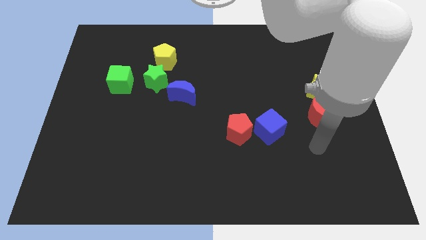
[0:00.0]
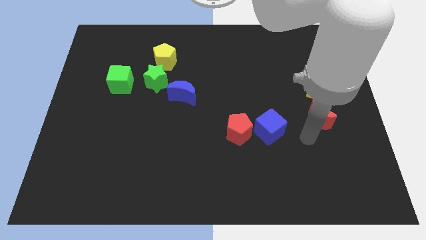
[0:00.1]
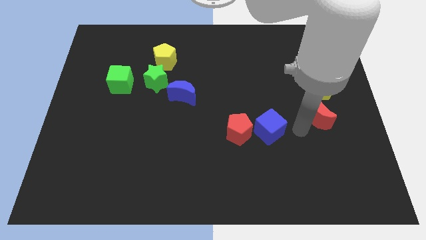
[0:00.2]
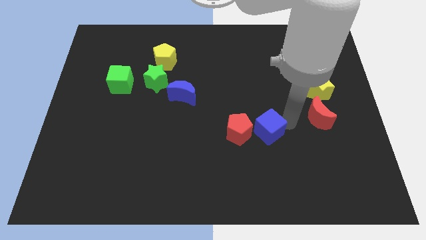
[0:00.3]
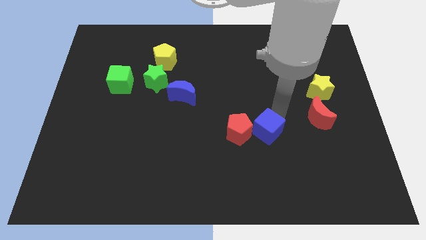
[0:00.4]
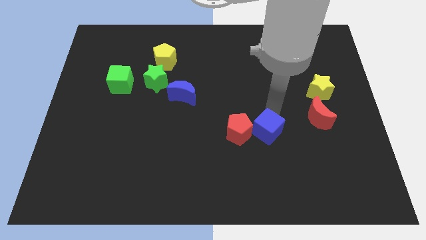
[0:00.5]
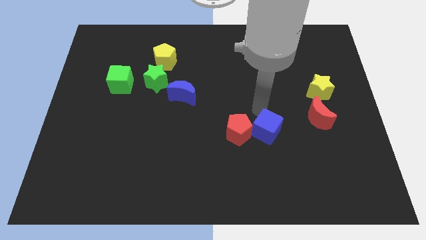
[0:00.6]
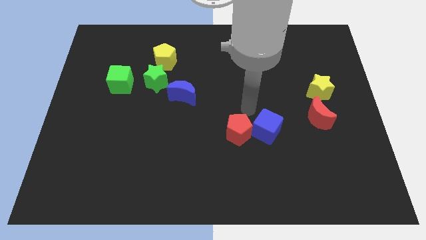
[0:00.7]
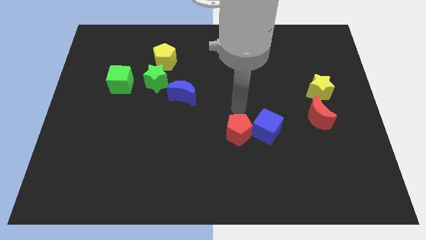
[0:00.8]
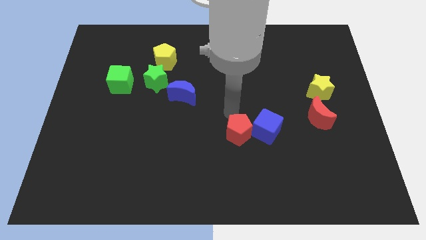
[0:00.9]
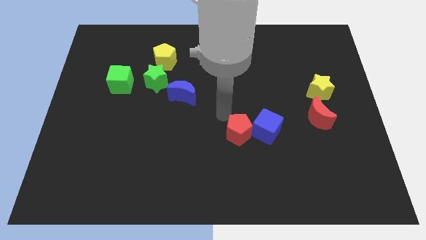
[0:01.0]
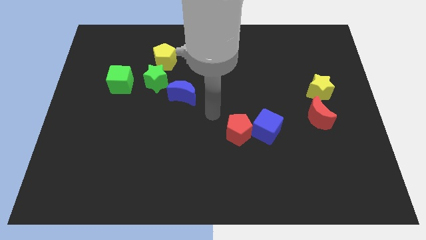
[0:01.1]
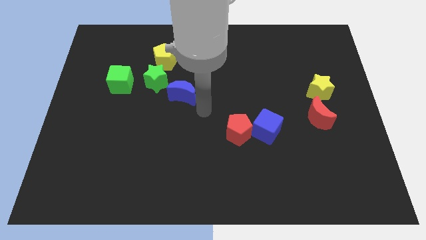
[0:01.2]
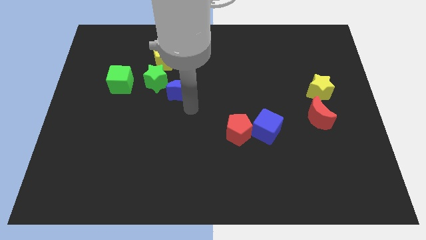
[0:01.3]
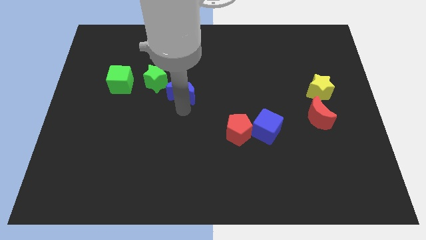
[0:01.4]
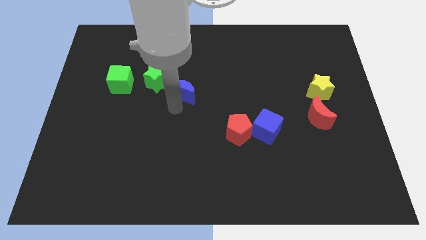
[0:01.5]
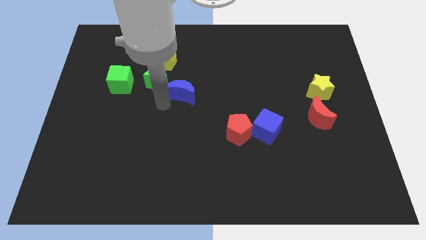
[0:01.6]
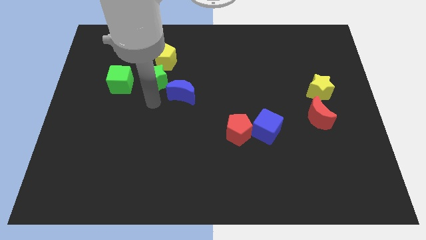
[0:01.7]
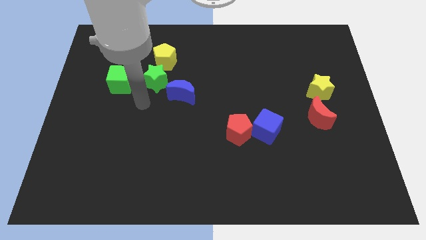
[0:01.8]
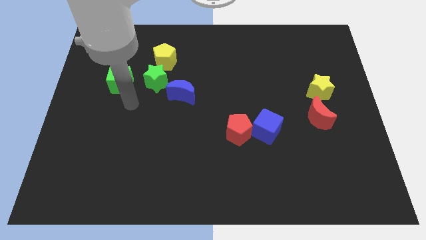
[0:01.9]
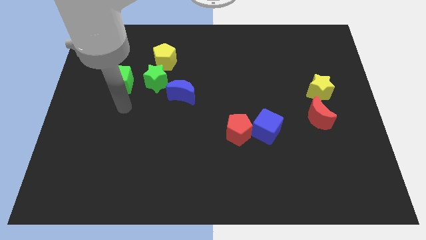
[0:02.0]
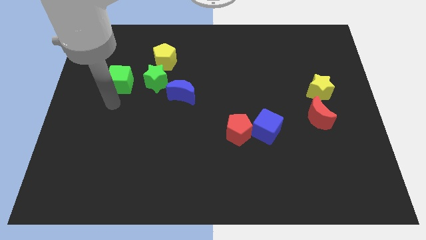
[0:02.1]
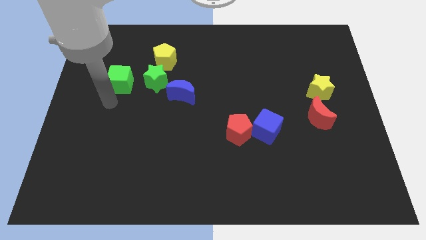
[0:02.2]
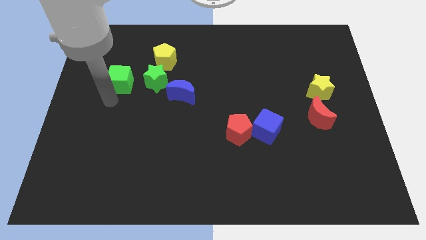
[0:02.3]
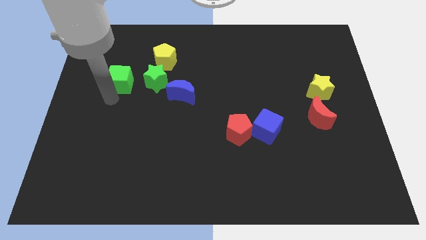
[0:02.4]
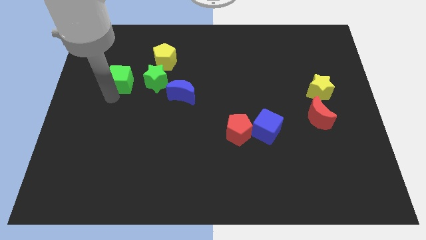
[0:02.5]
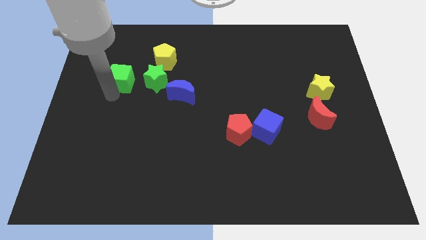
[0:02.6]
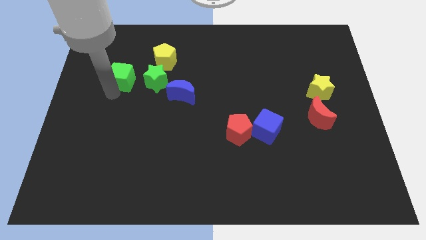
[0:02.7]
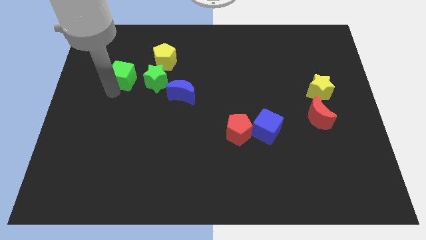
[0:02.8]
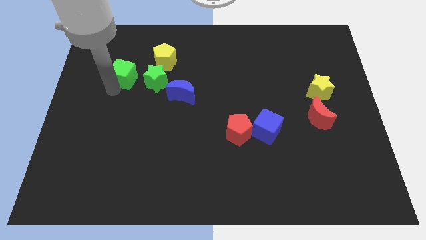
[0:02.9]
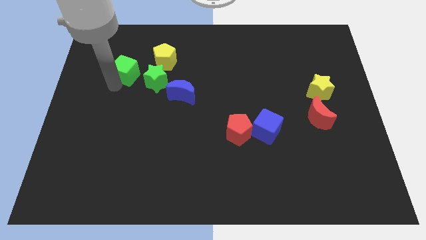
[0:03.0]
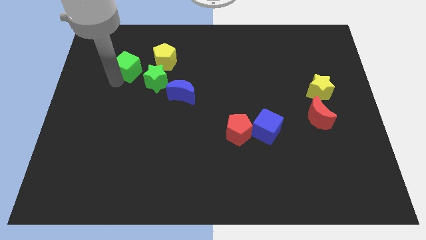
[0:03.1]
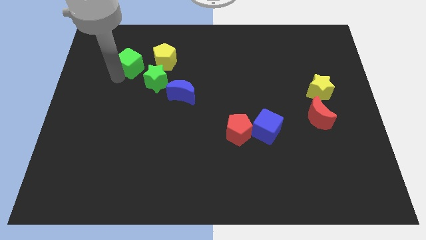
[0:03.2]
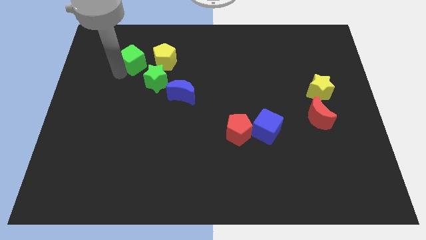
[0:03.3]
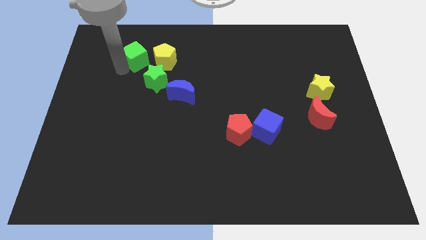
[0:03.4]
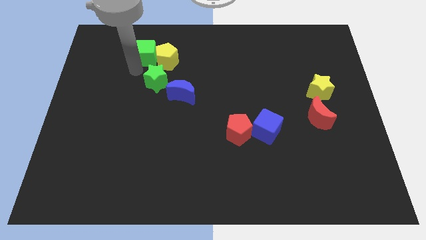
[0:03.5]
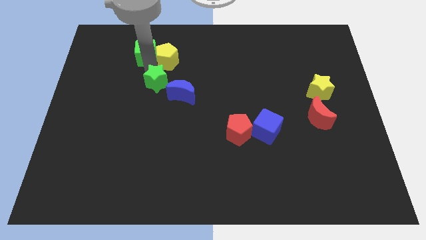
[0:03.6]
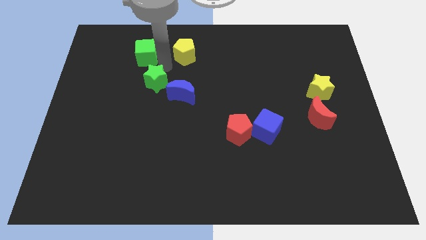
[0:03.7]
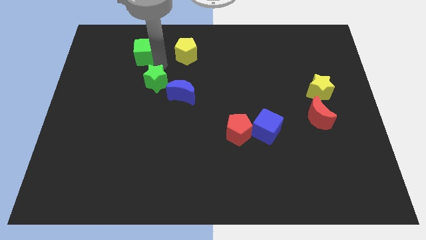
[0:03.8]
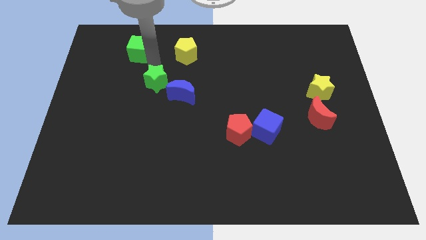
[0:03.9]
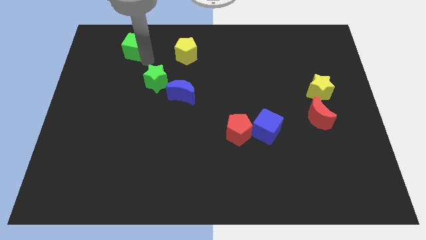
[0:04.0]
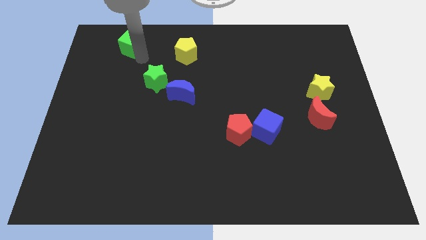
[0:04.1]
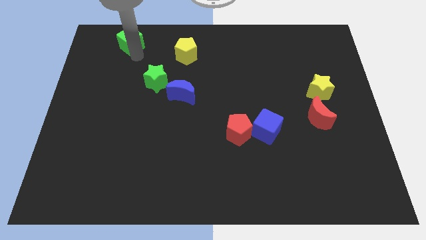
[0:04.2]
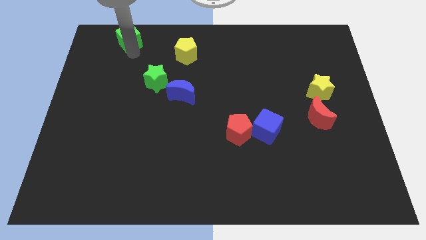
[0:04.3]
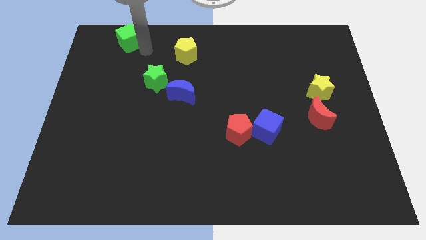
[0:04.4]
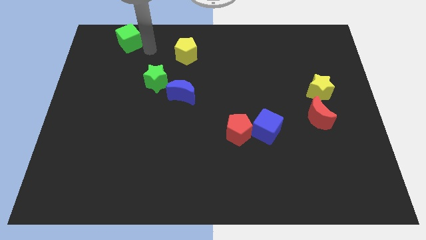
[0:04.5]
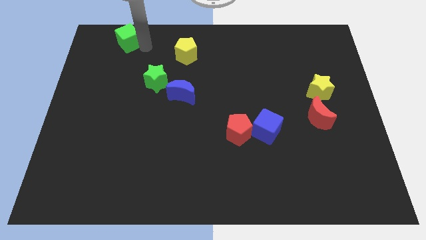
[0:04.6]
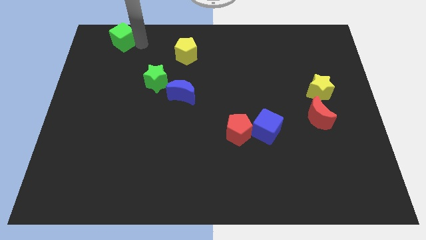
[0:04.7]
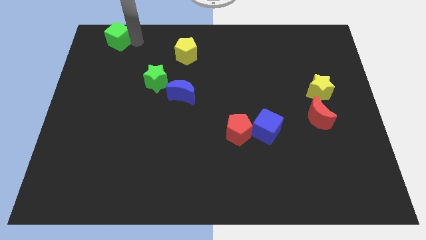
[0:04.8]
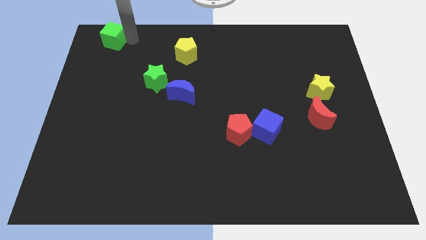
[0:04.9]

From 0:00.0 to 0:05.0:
slide the green cube to the top left corner
